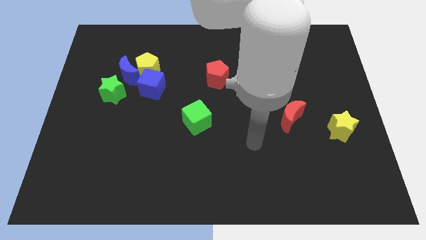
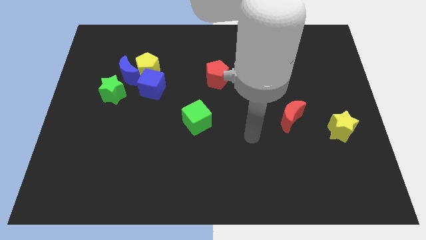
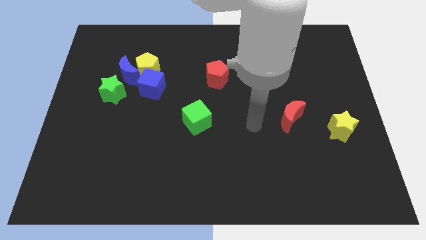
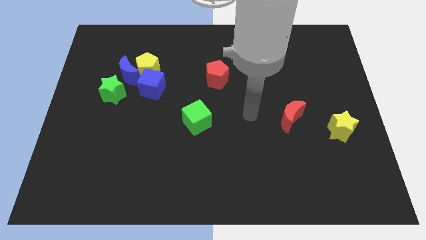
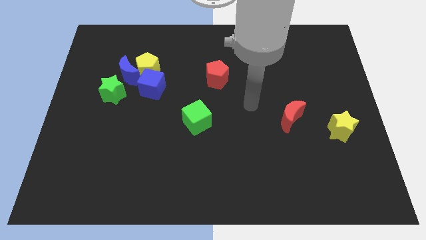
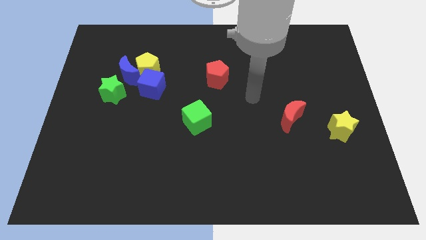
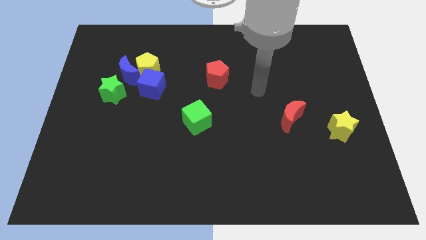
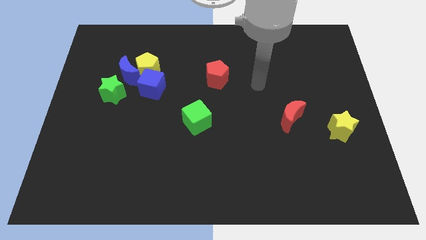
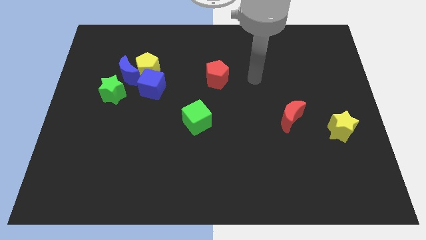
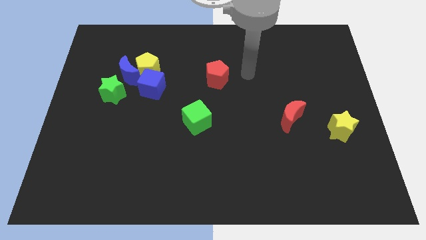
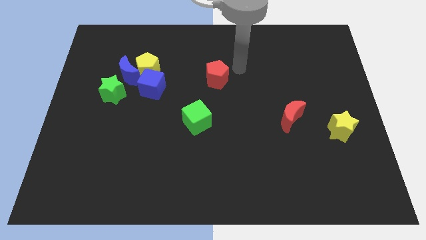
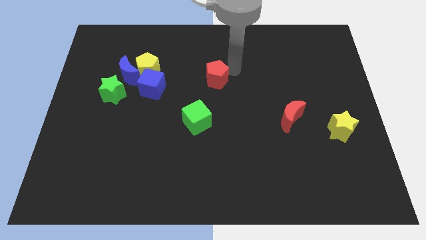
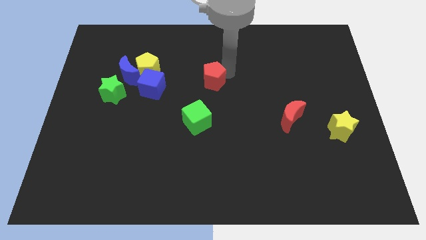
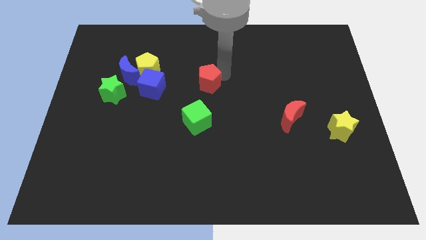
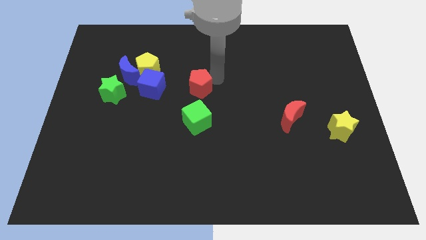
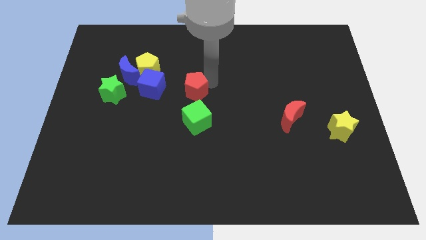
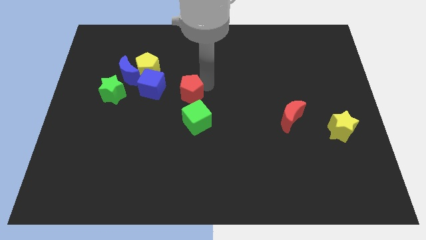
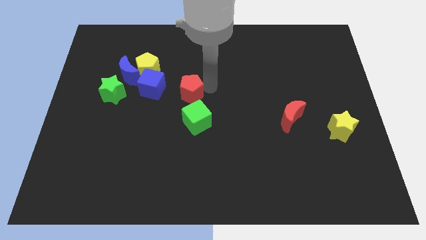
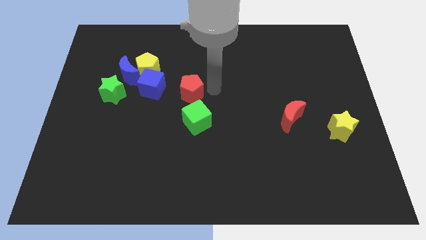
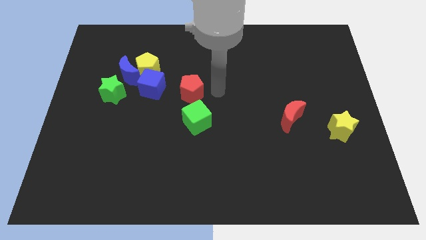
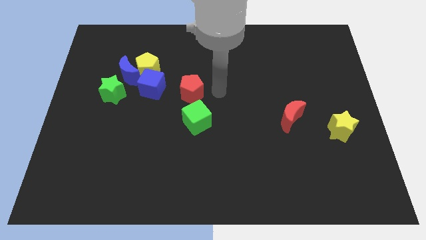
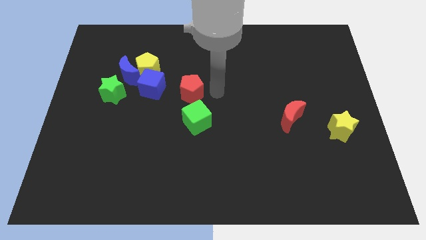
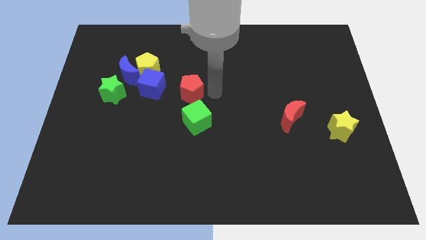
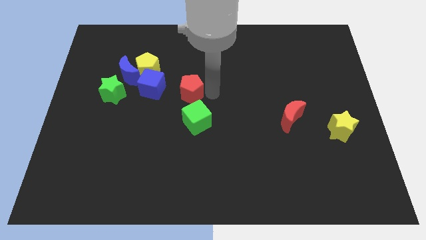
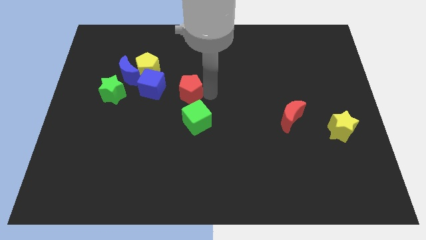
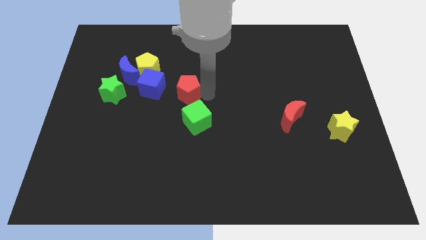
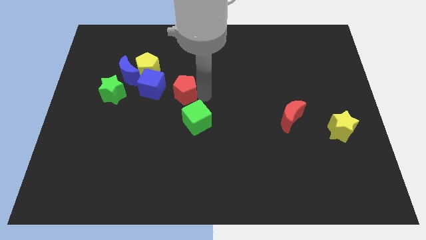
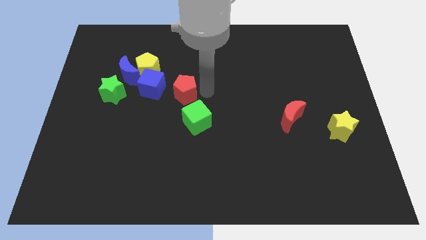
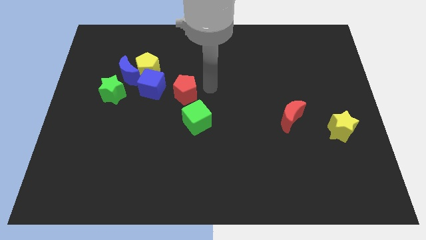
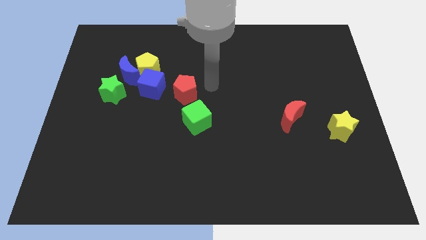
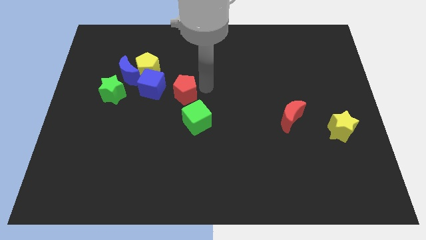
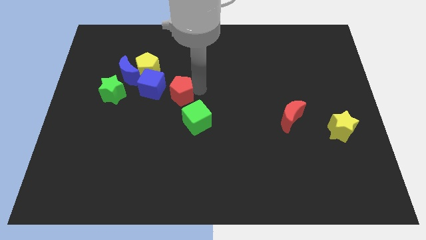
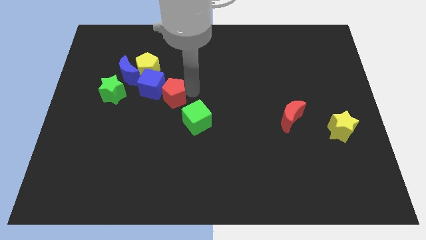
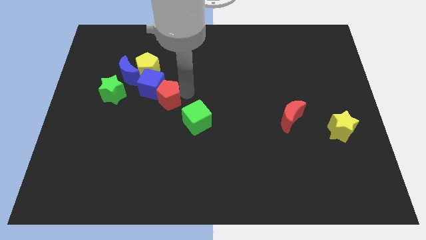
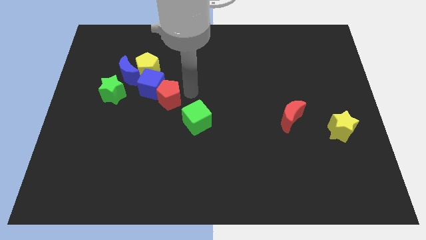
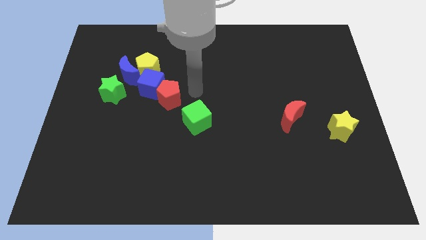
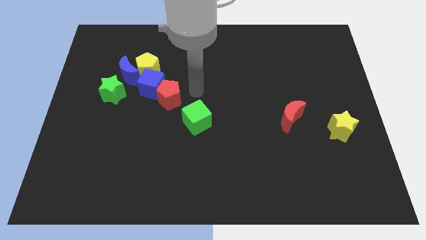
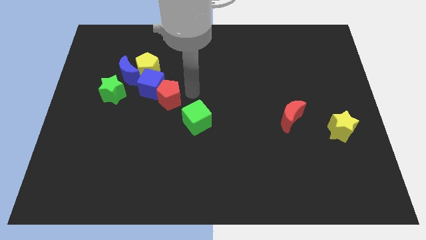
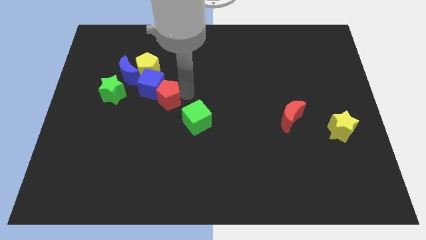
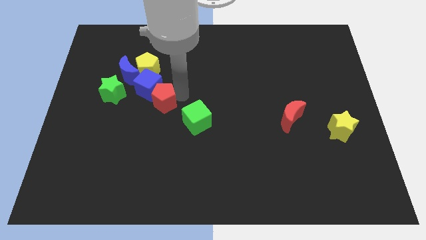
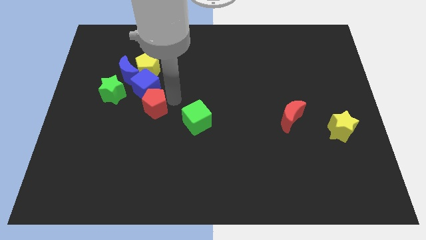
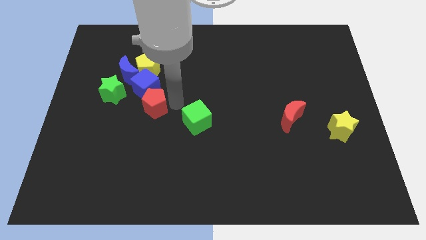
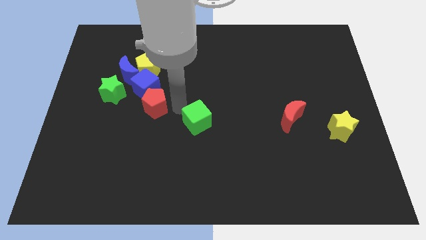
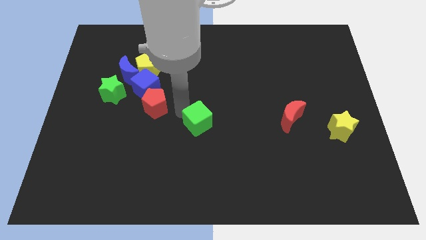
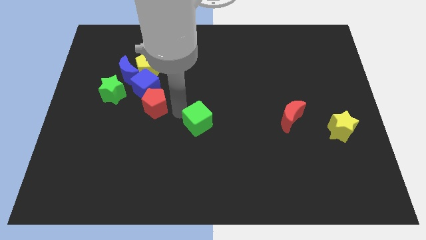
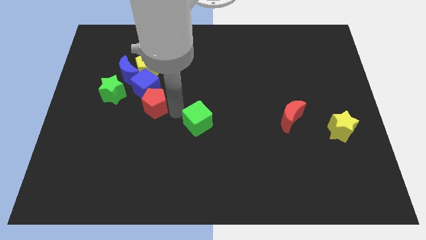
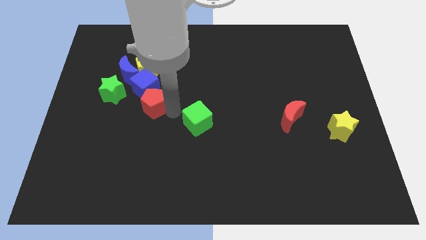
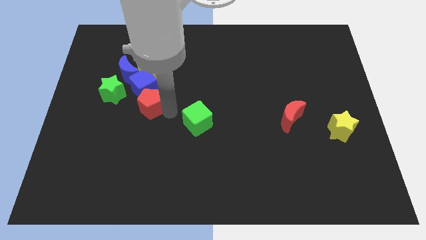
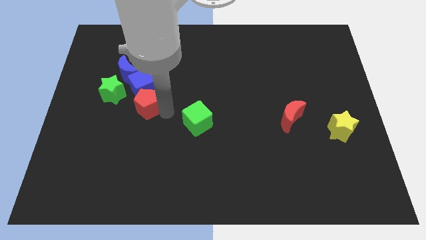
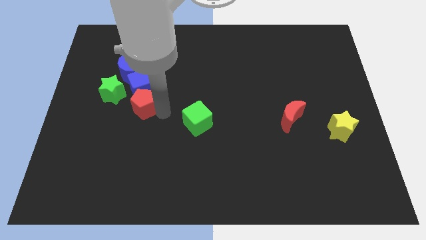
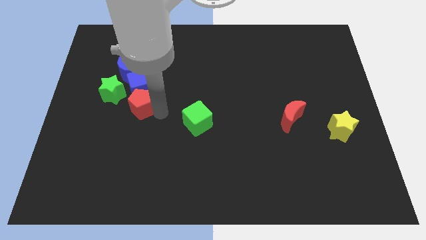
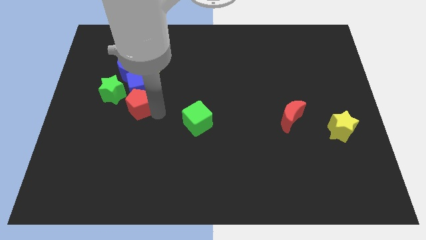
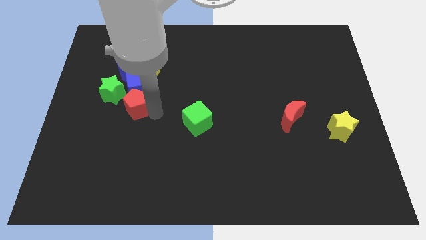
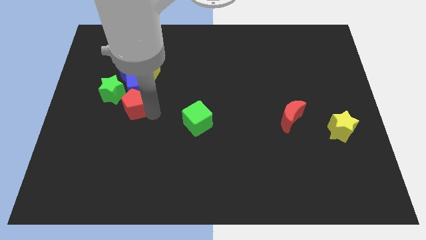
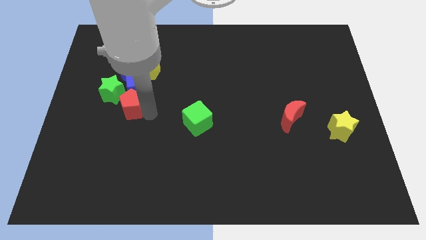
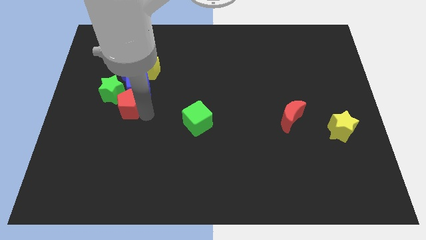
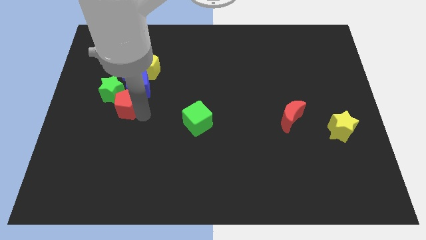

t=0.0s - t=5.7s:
slide the red pentagon to the green star

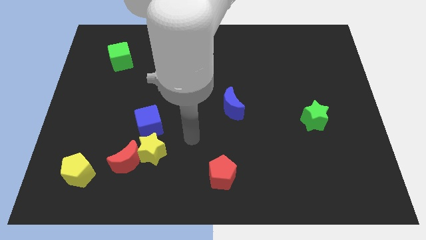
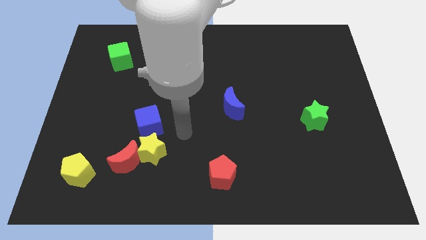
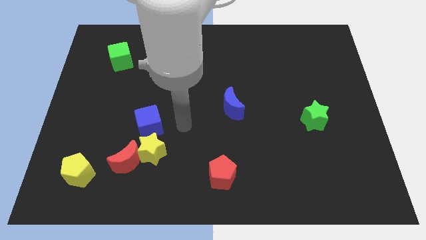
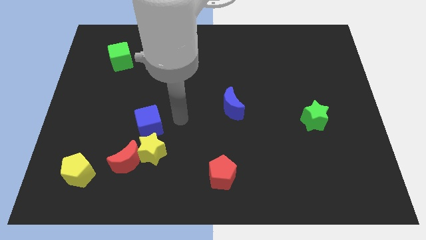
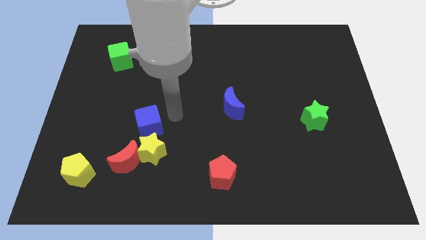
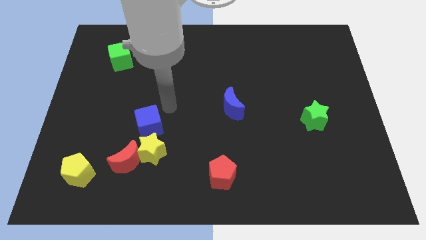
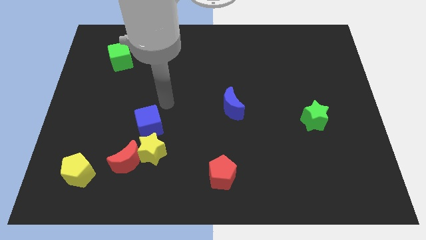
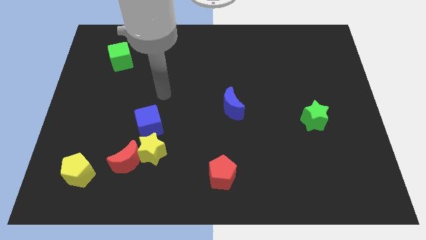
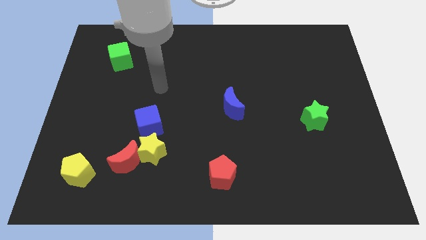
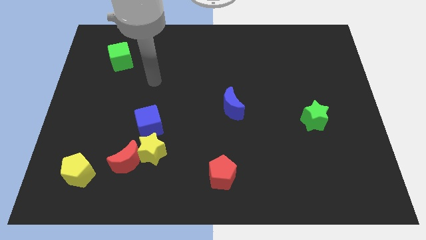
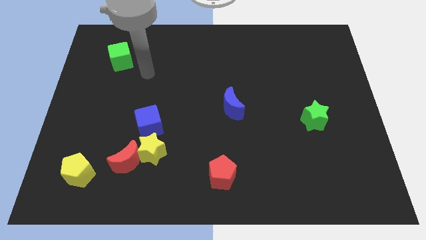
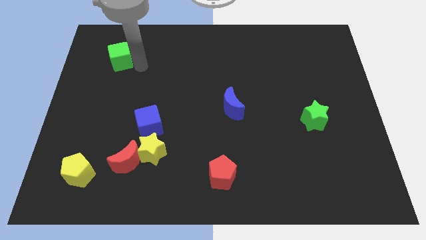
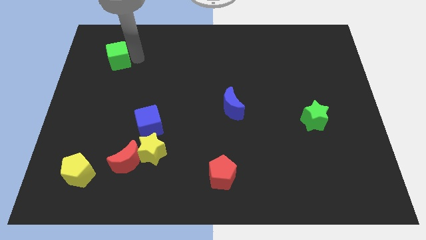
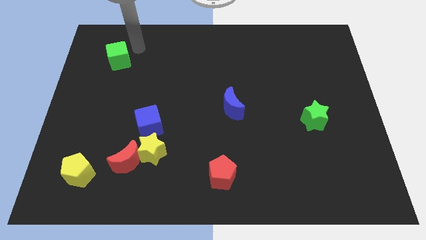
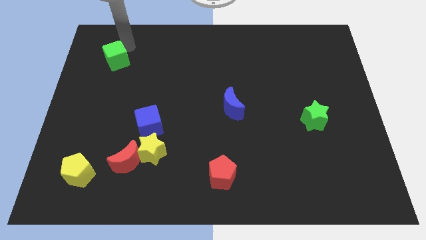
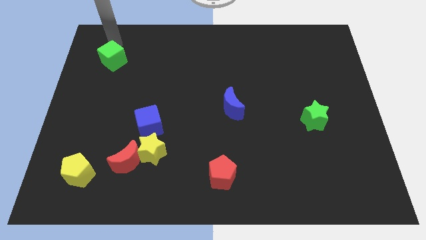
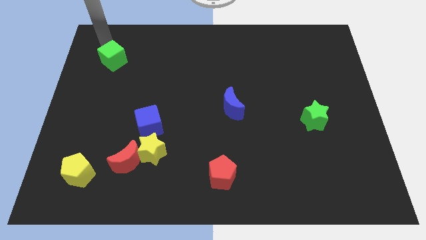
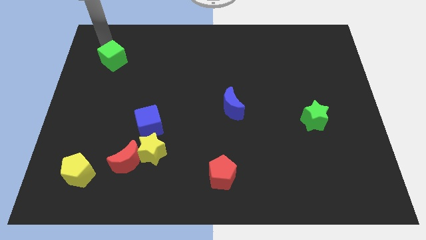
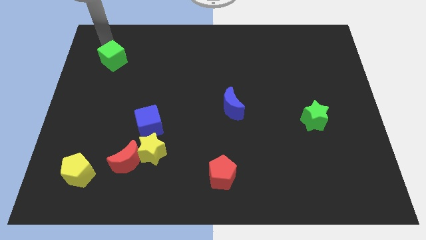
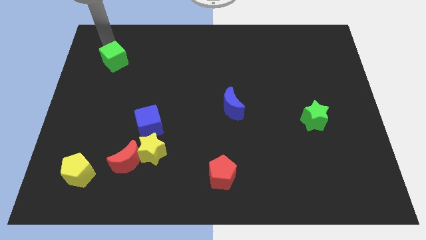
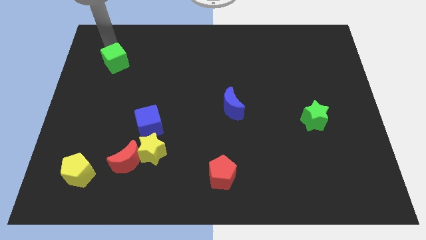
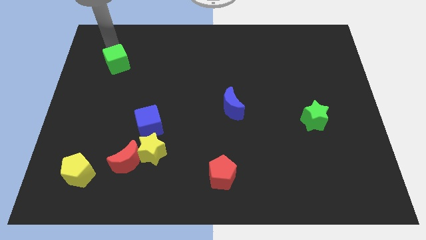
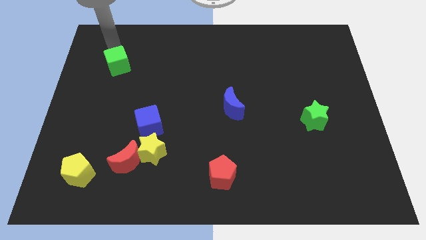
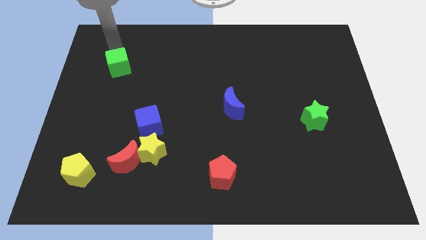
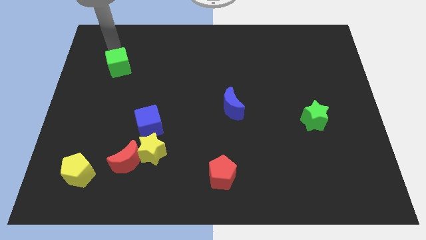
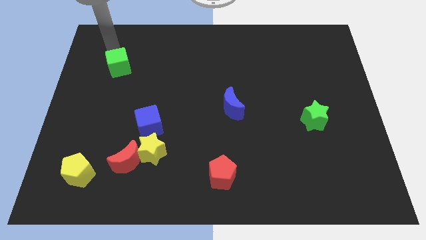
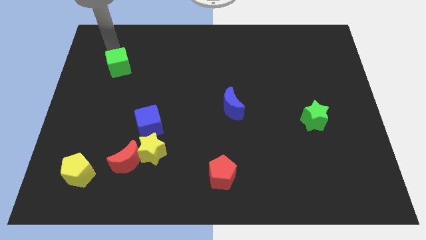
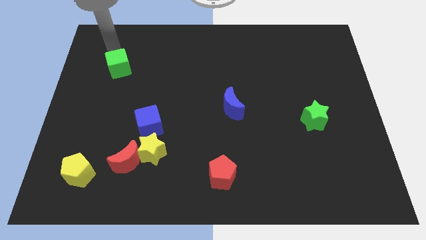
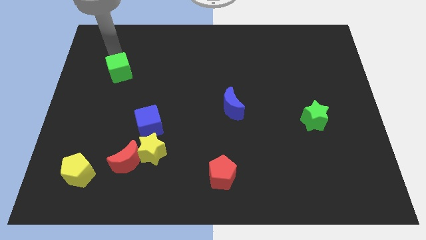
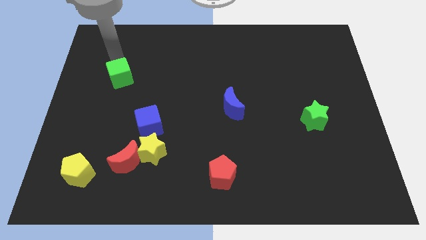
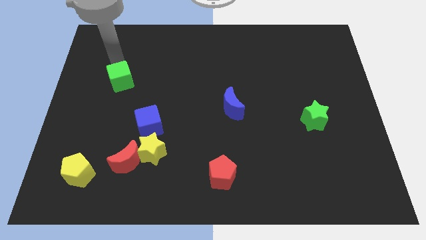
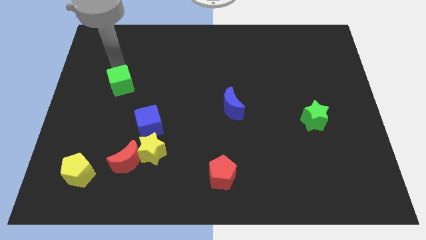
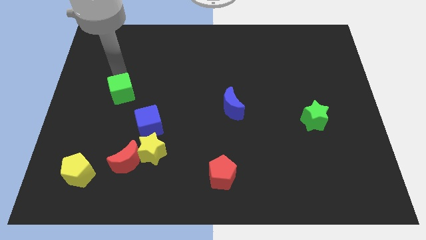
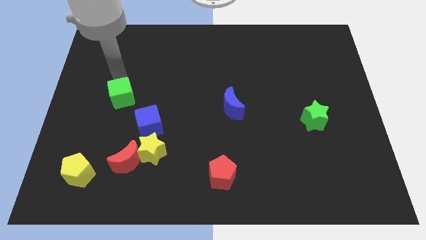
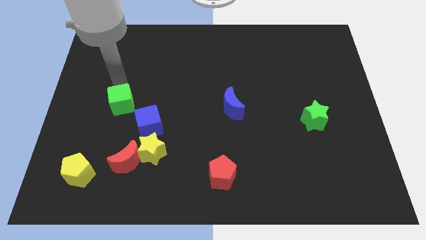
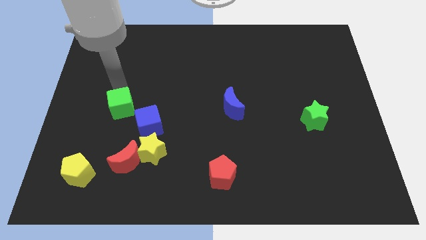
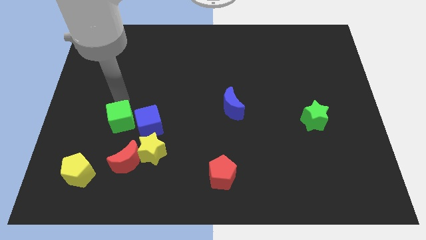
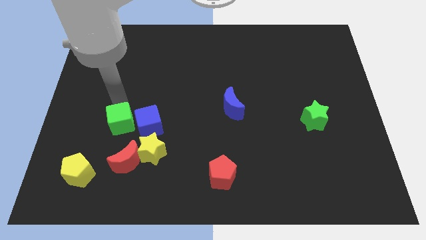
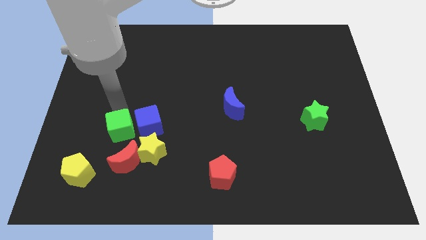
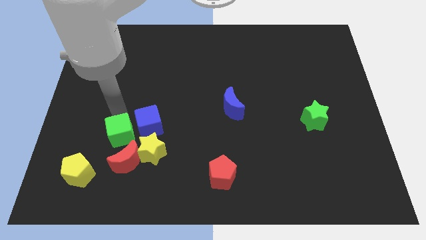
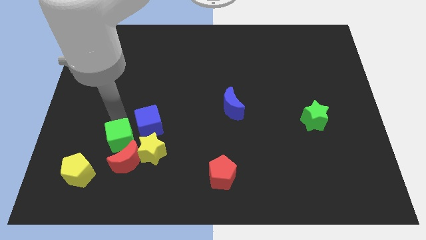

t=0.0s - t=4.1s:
slide the green cube towards the red moon
